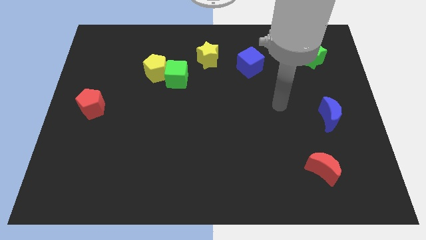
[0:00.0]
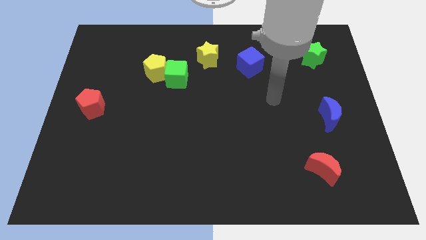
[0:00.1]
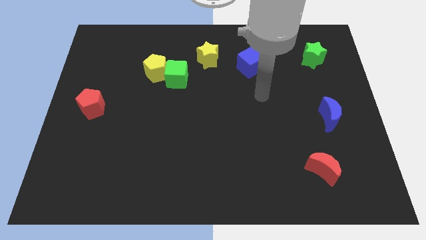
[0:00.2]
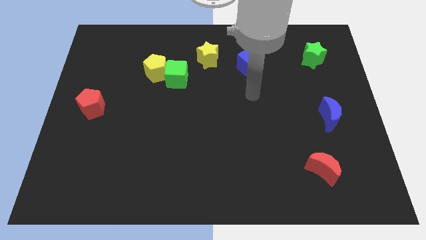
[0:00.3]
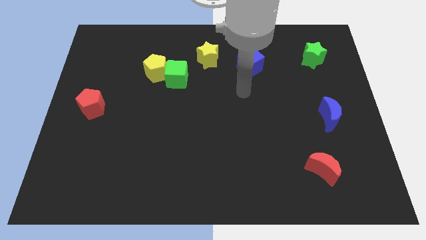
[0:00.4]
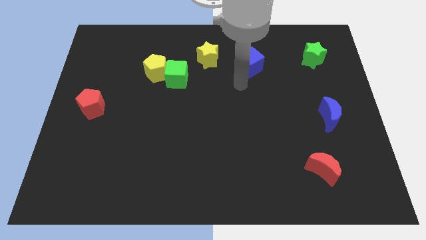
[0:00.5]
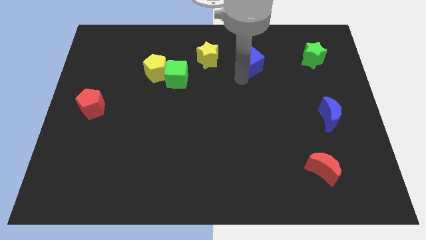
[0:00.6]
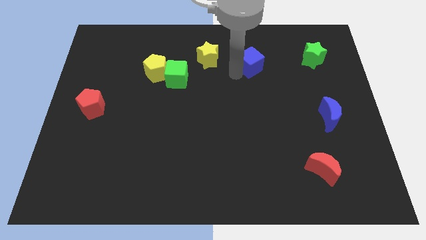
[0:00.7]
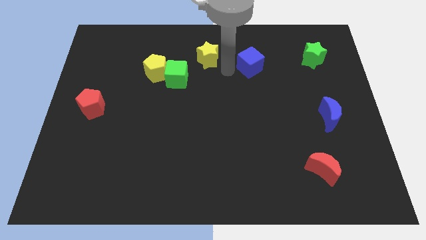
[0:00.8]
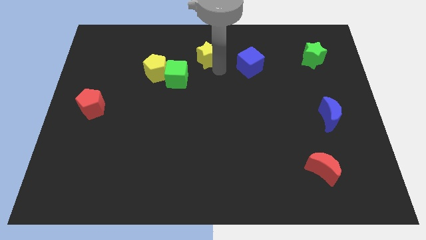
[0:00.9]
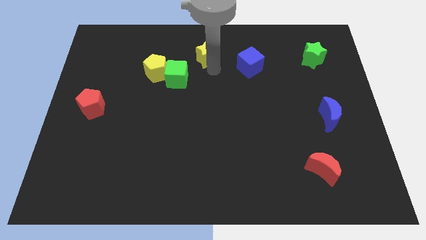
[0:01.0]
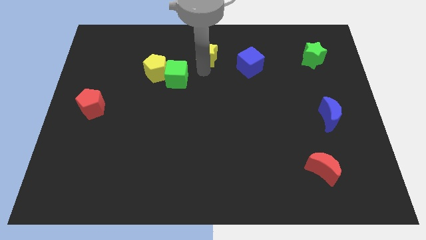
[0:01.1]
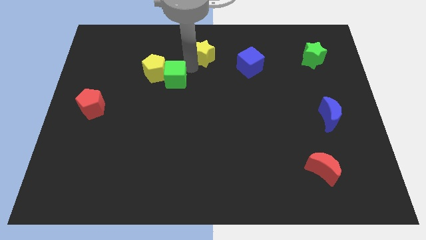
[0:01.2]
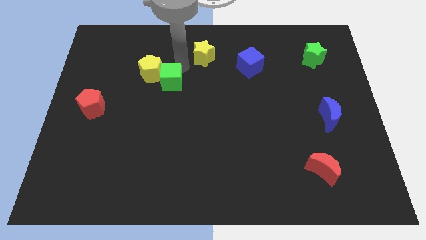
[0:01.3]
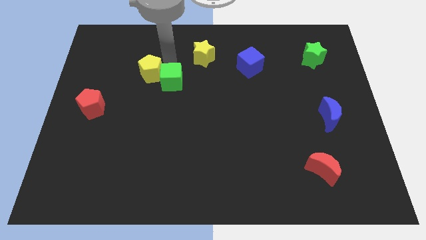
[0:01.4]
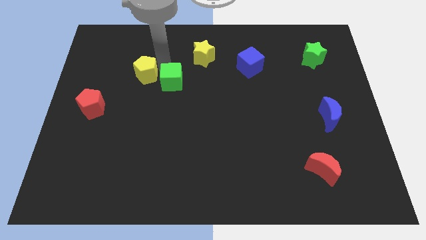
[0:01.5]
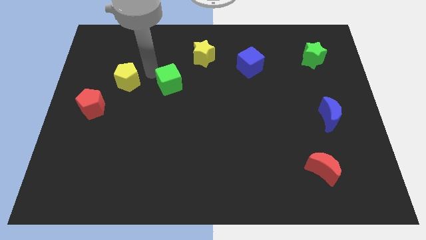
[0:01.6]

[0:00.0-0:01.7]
move the green cube away from the yellow pentagon

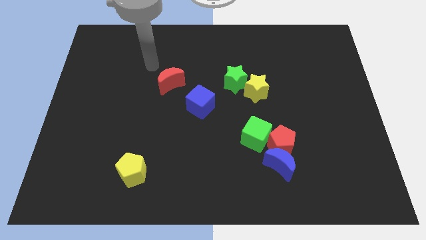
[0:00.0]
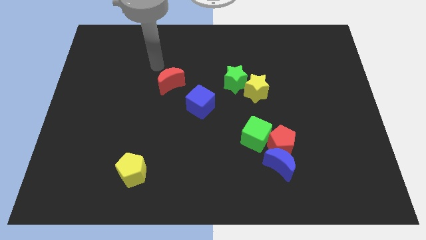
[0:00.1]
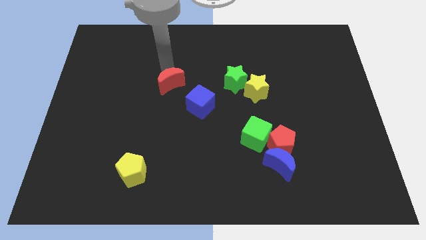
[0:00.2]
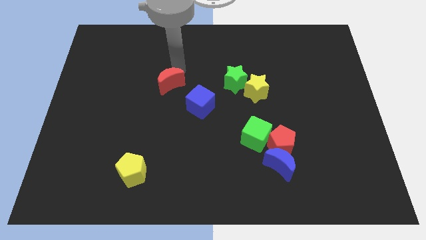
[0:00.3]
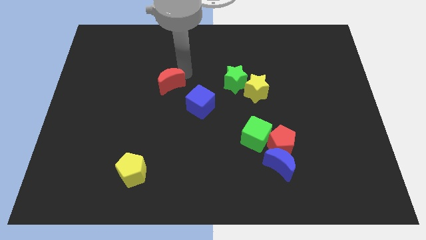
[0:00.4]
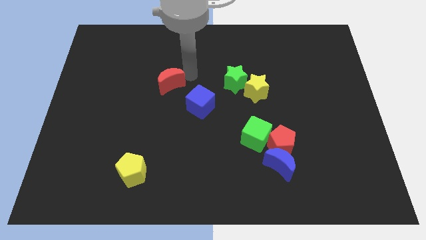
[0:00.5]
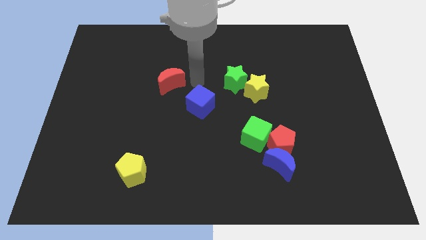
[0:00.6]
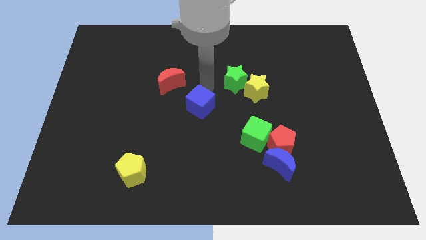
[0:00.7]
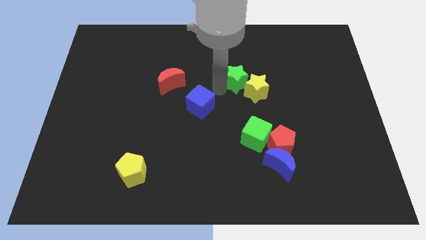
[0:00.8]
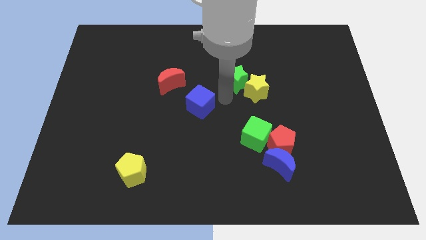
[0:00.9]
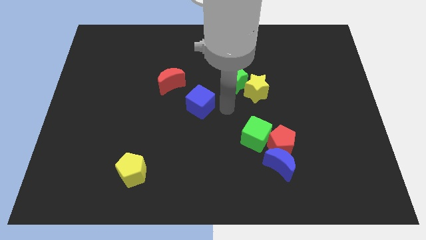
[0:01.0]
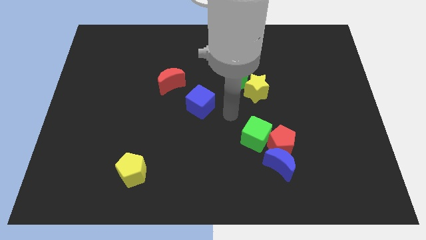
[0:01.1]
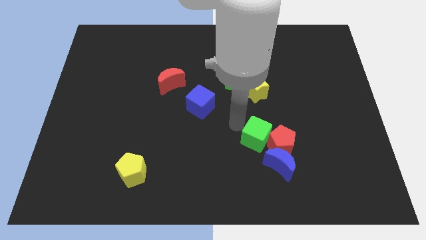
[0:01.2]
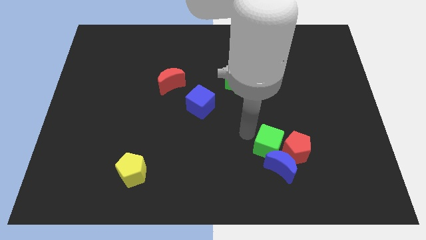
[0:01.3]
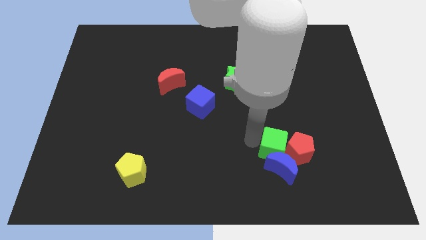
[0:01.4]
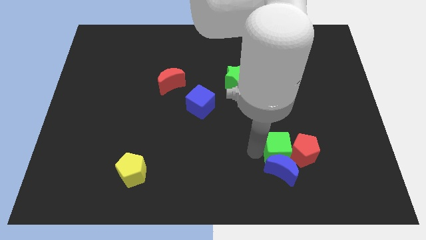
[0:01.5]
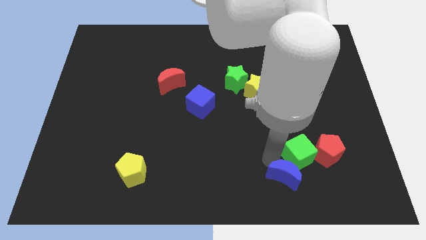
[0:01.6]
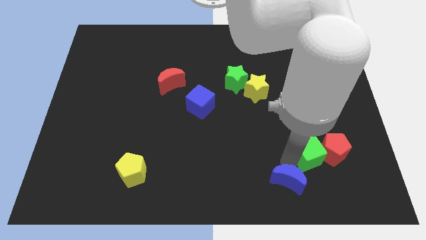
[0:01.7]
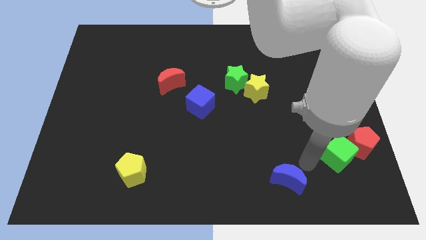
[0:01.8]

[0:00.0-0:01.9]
pull the red pentagon apart from the blue moon and green cube

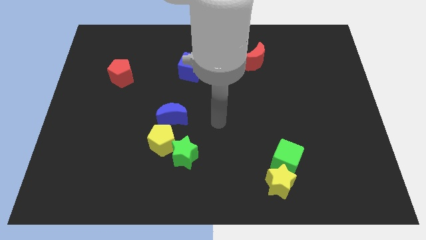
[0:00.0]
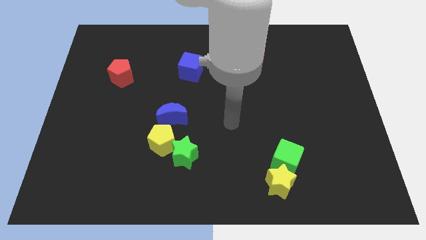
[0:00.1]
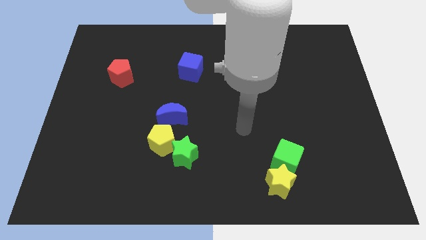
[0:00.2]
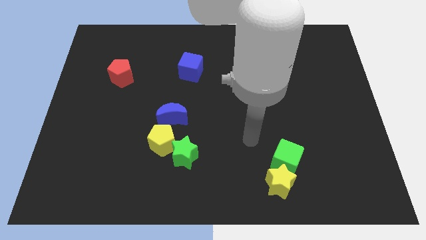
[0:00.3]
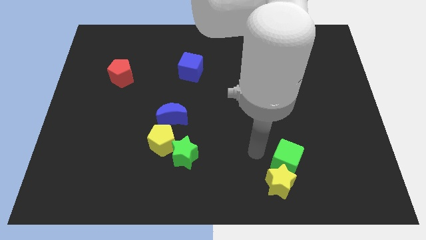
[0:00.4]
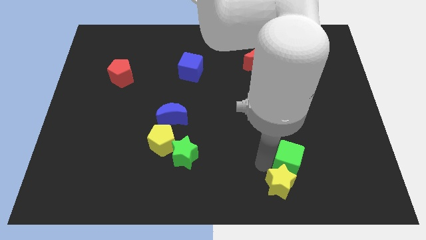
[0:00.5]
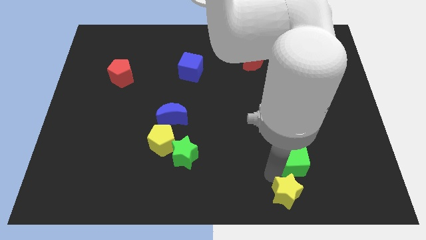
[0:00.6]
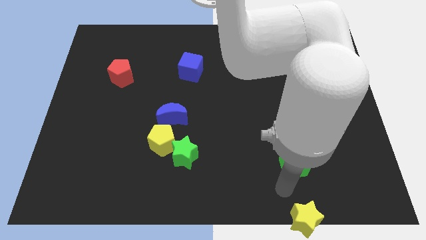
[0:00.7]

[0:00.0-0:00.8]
move the green cube away from the yellow star

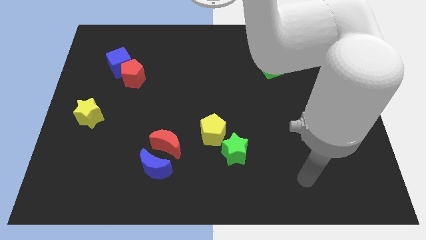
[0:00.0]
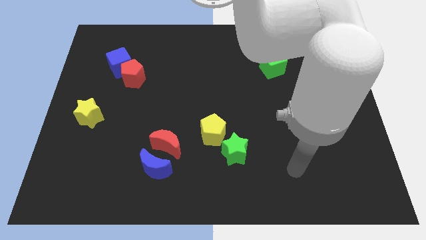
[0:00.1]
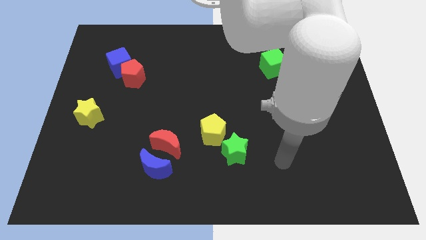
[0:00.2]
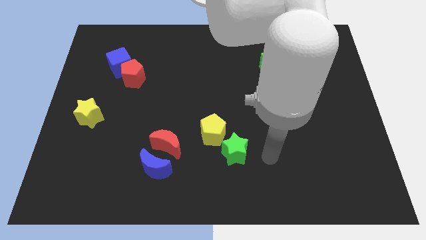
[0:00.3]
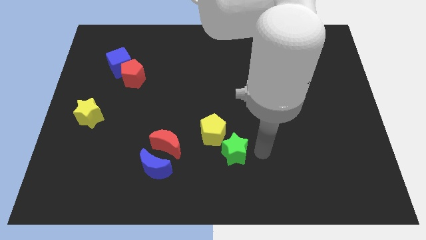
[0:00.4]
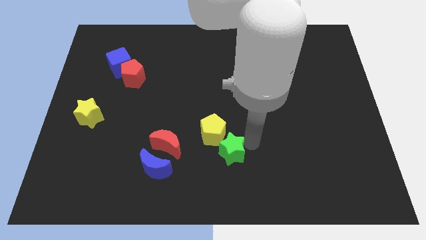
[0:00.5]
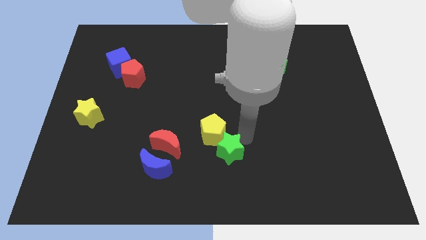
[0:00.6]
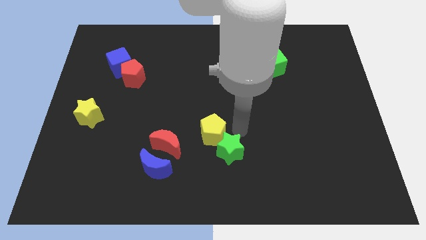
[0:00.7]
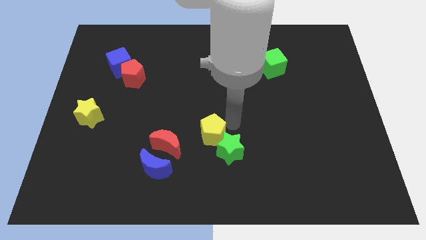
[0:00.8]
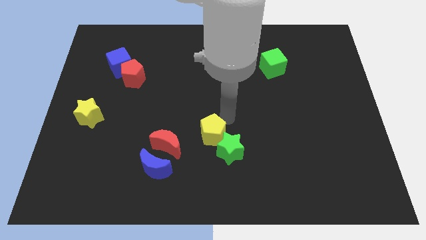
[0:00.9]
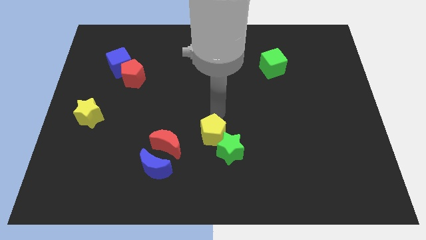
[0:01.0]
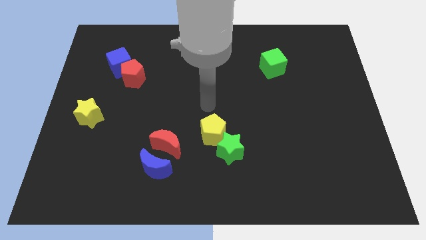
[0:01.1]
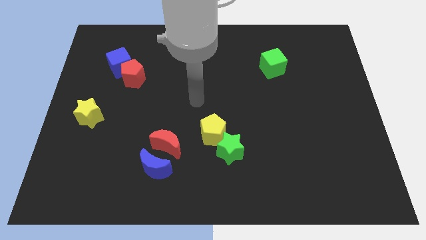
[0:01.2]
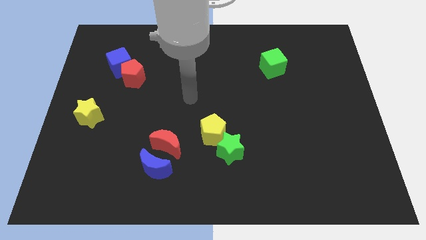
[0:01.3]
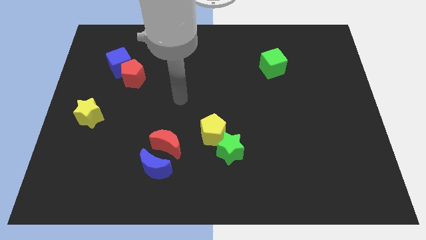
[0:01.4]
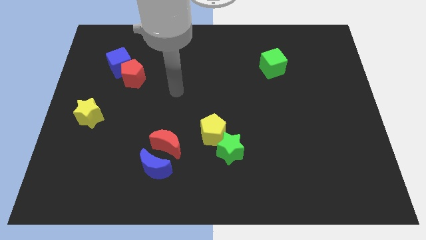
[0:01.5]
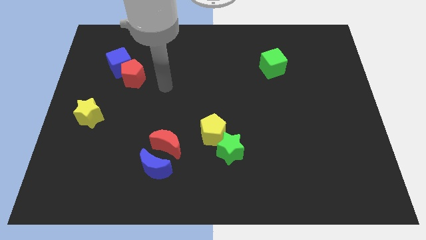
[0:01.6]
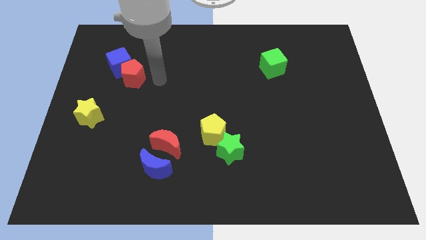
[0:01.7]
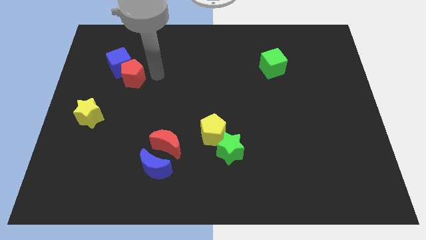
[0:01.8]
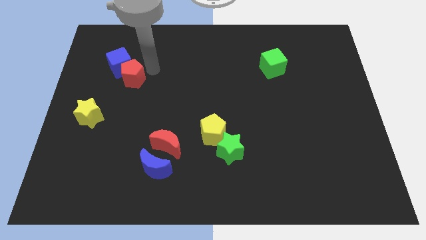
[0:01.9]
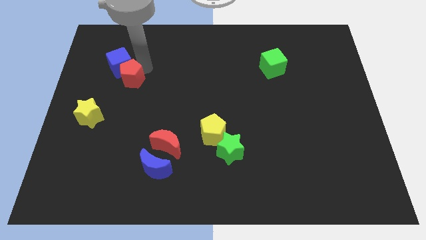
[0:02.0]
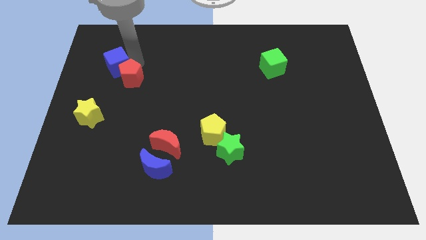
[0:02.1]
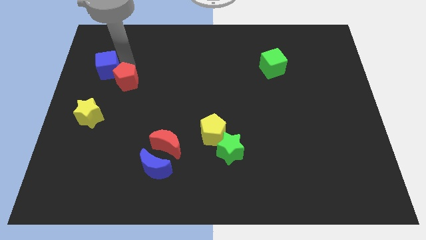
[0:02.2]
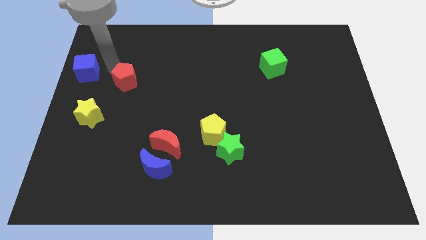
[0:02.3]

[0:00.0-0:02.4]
pull the red pentagon apart from the blue cube

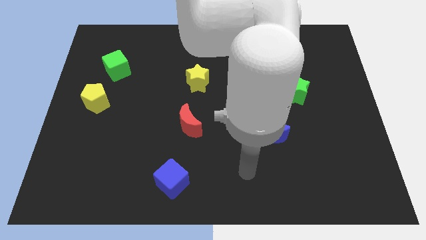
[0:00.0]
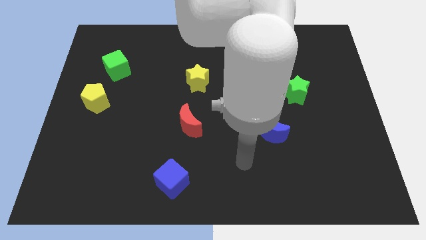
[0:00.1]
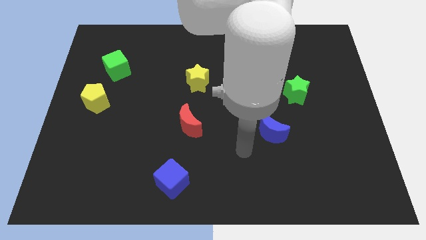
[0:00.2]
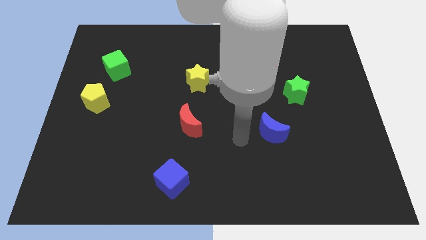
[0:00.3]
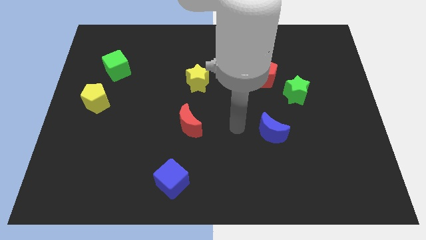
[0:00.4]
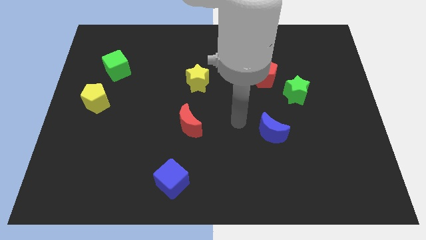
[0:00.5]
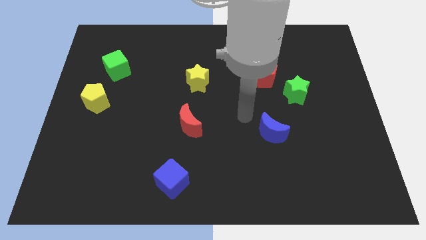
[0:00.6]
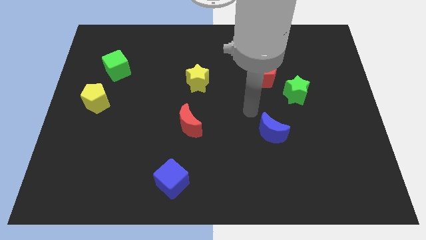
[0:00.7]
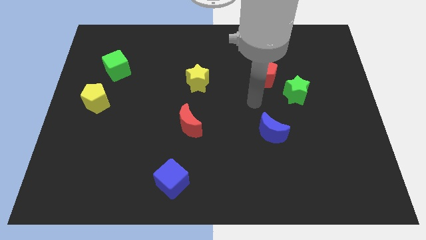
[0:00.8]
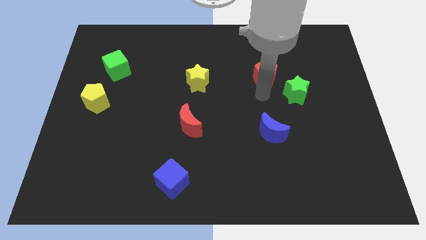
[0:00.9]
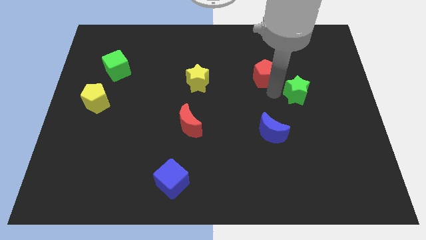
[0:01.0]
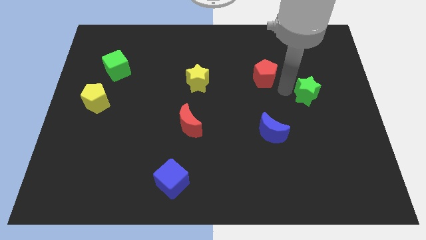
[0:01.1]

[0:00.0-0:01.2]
separate the red pentagon from the green star

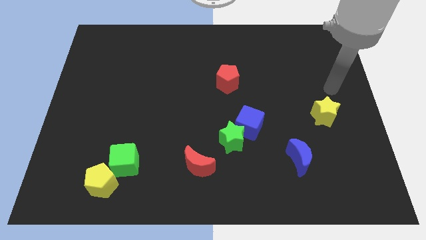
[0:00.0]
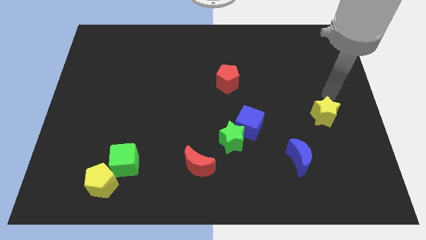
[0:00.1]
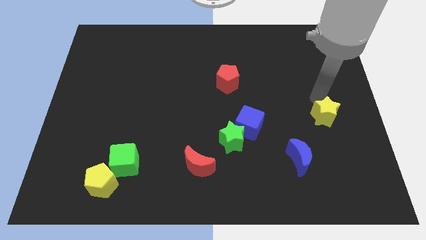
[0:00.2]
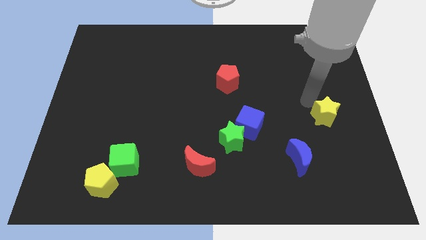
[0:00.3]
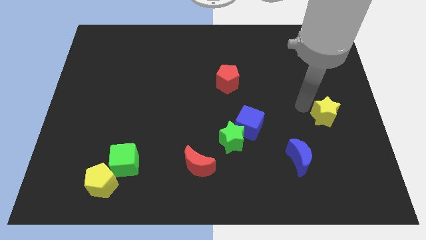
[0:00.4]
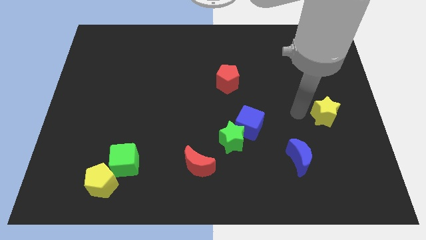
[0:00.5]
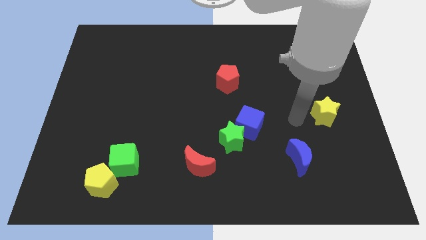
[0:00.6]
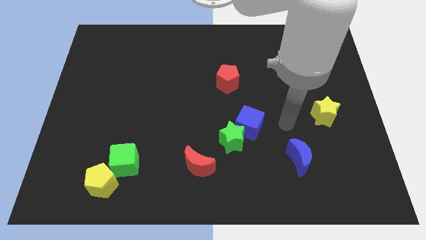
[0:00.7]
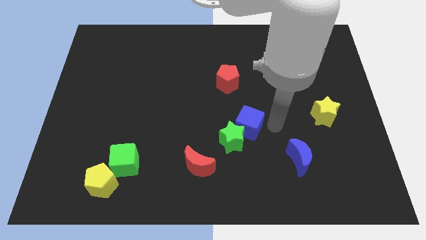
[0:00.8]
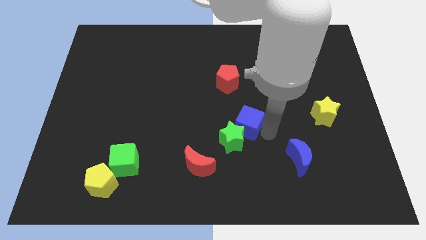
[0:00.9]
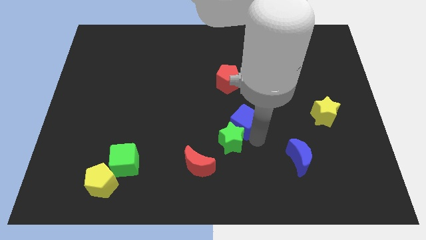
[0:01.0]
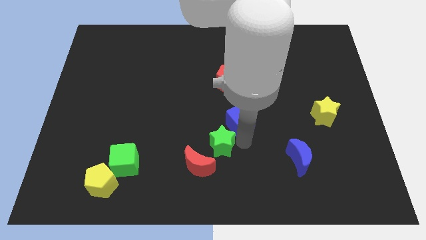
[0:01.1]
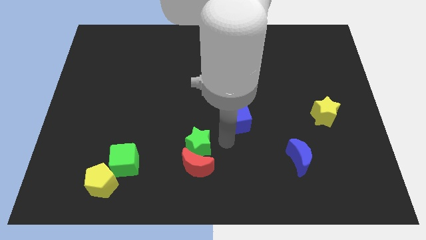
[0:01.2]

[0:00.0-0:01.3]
separate the blue cube from the green star
